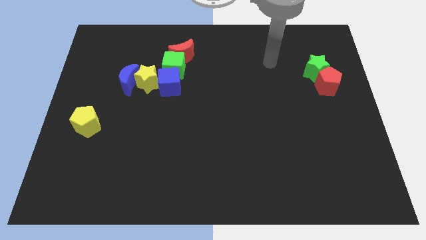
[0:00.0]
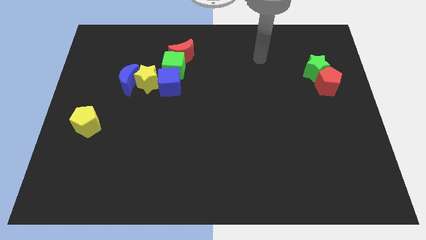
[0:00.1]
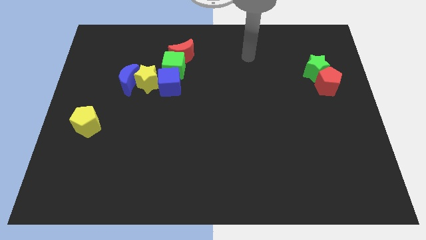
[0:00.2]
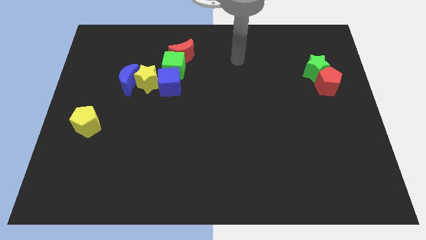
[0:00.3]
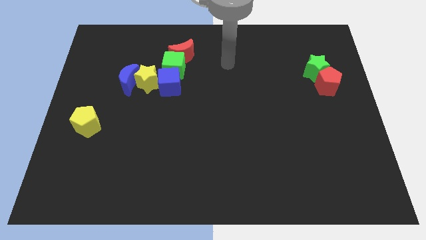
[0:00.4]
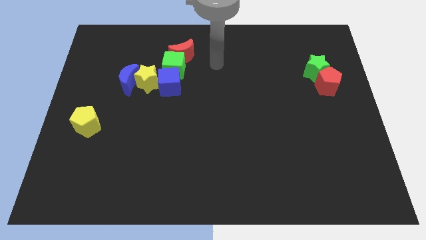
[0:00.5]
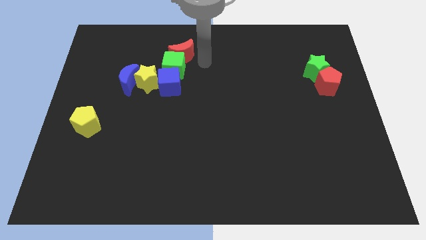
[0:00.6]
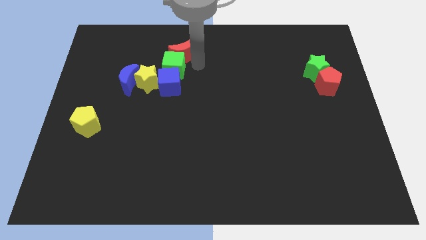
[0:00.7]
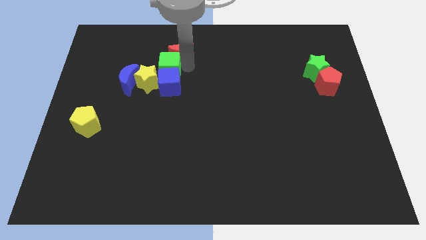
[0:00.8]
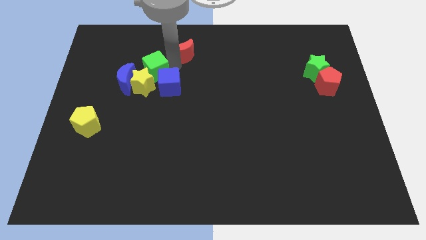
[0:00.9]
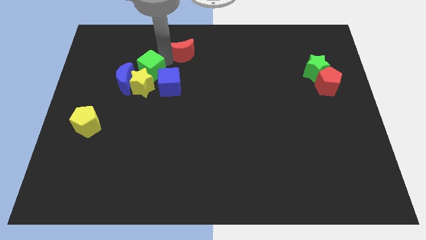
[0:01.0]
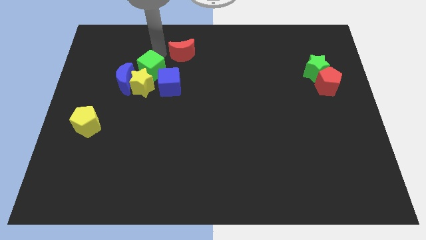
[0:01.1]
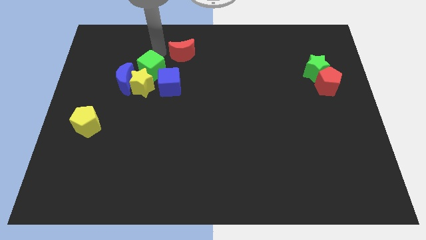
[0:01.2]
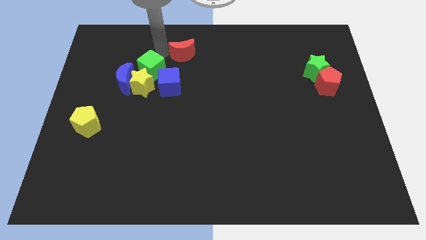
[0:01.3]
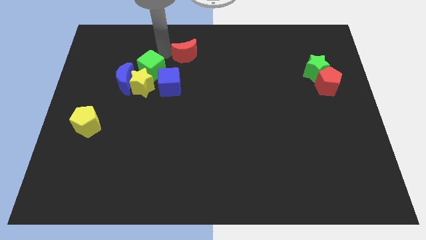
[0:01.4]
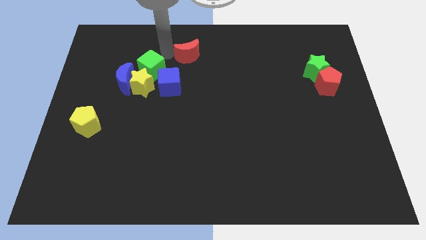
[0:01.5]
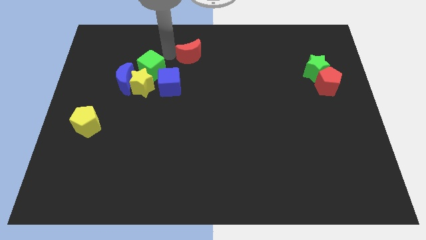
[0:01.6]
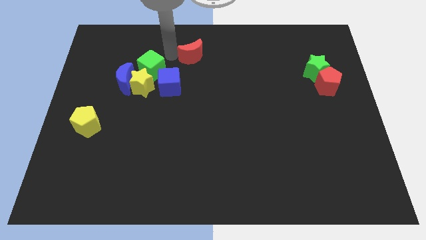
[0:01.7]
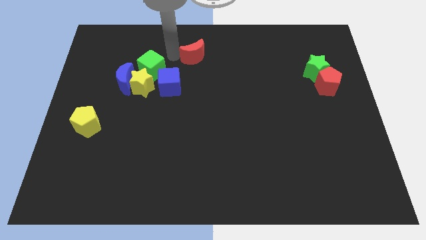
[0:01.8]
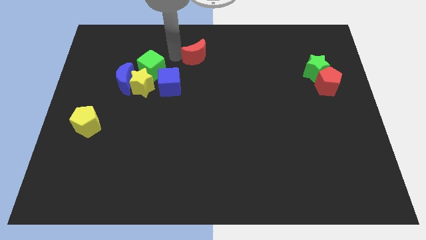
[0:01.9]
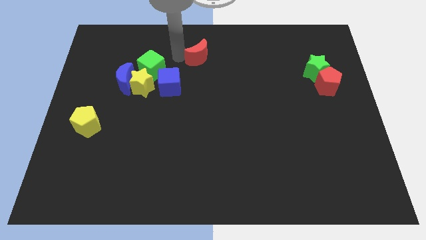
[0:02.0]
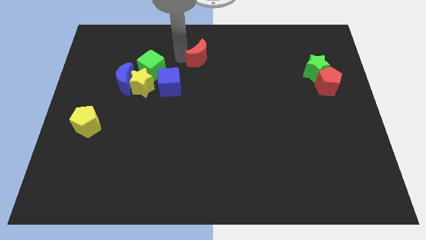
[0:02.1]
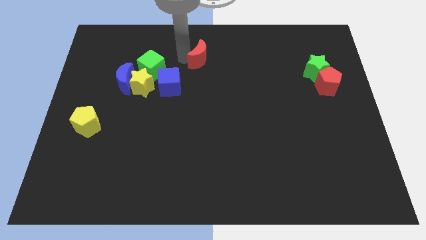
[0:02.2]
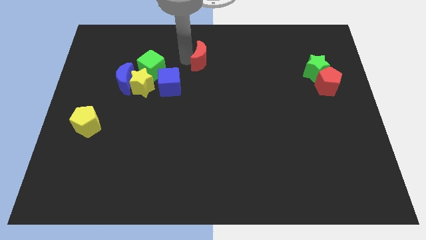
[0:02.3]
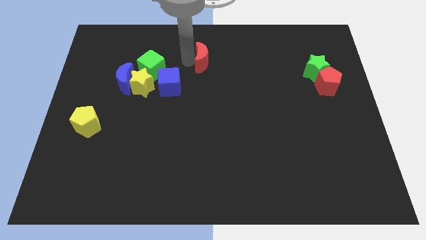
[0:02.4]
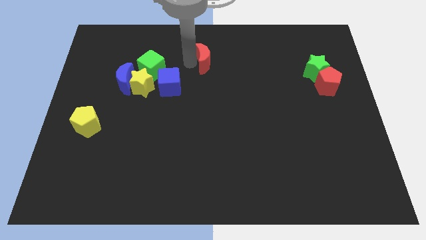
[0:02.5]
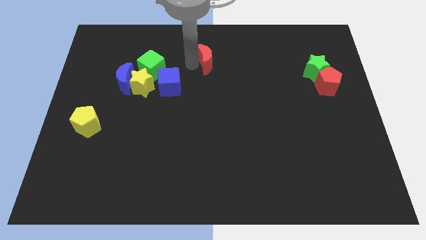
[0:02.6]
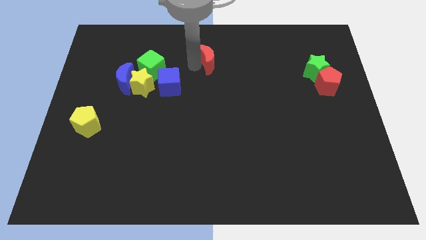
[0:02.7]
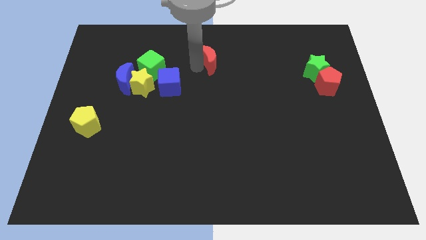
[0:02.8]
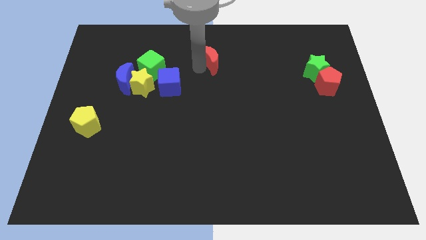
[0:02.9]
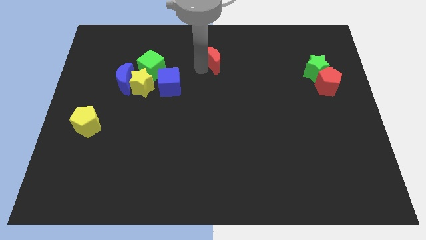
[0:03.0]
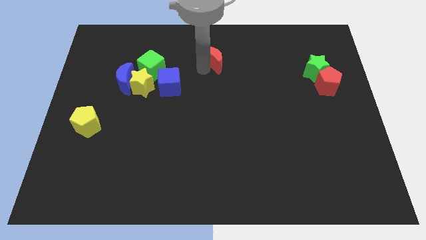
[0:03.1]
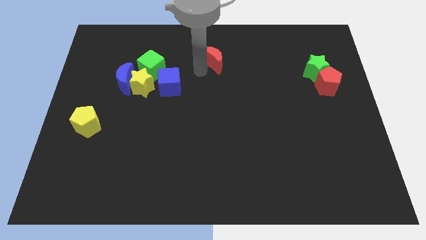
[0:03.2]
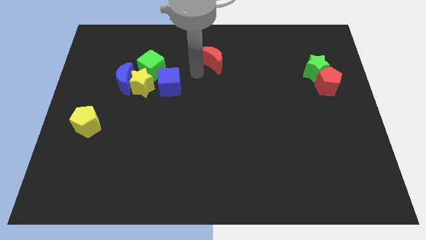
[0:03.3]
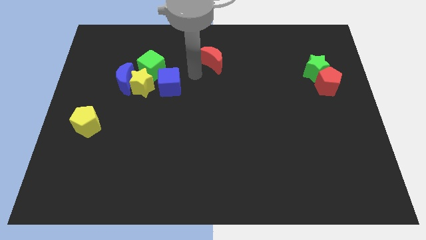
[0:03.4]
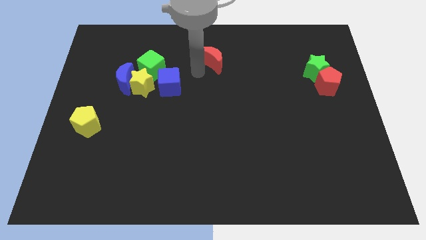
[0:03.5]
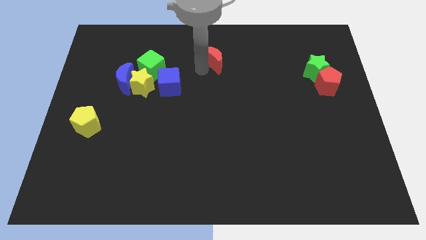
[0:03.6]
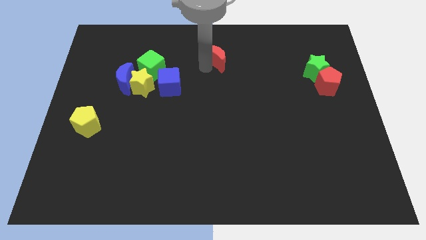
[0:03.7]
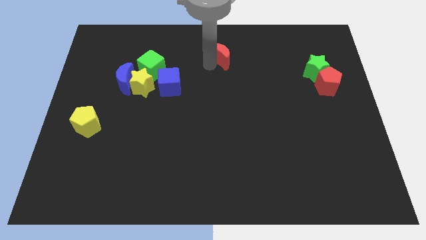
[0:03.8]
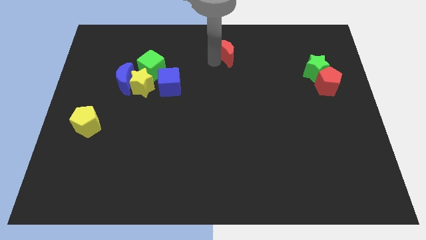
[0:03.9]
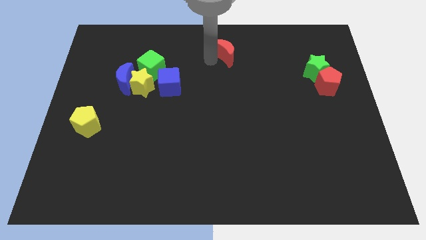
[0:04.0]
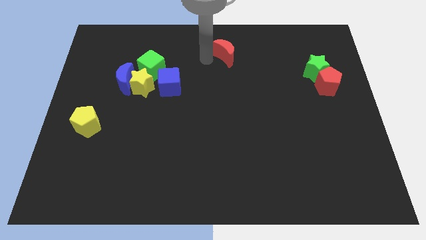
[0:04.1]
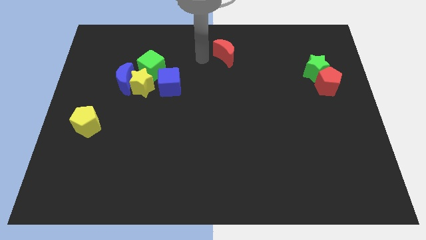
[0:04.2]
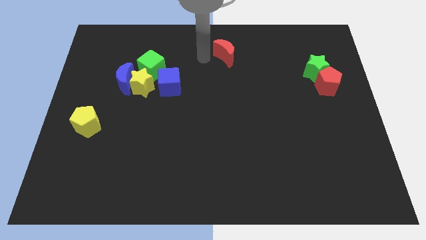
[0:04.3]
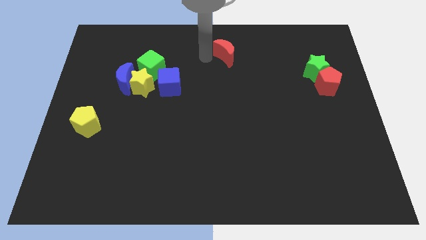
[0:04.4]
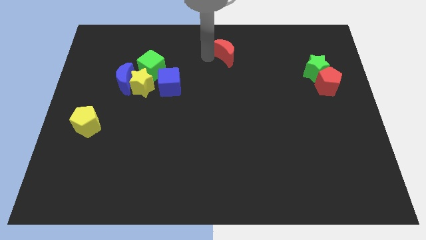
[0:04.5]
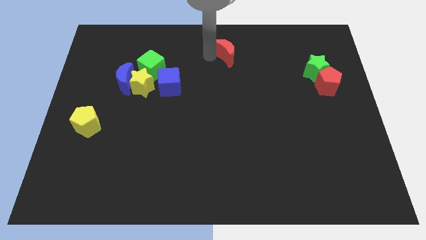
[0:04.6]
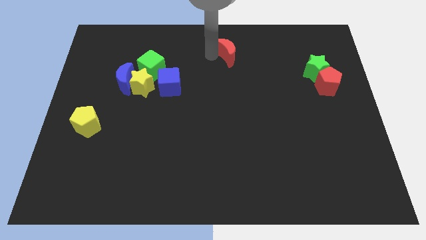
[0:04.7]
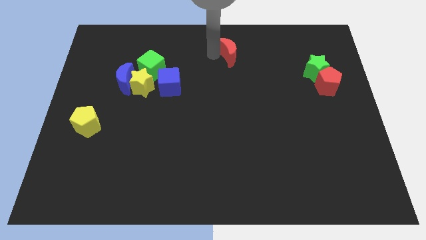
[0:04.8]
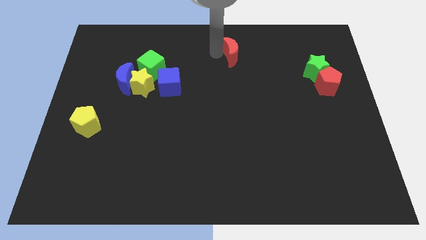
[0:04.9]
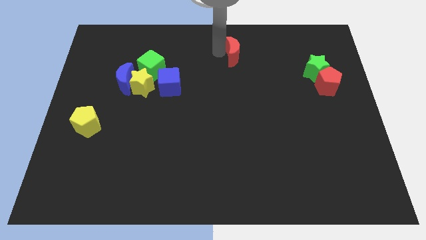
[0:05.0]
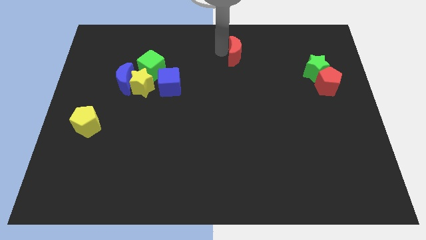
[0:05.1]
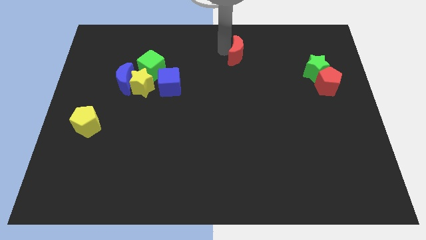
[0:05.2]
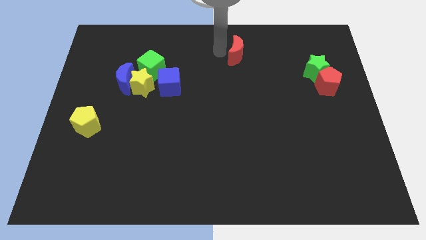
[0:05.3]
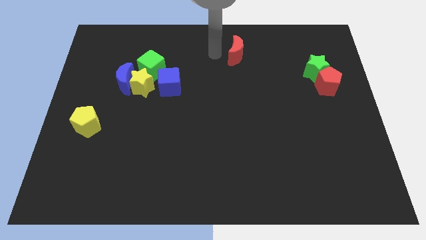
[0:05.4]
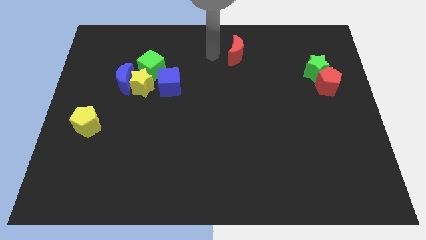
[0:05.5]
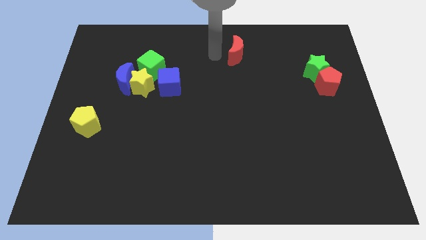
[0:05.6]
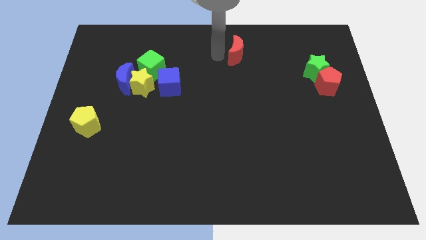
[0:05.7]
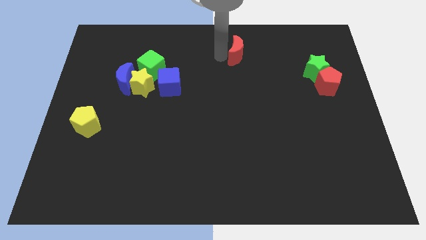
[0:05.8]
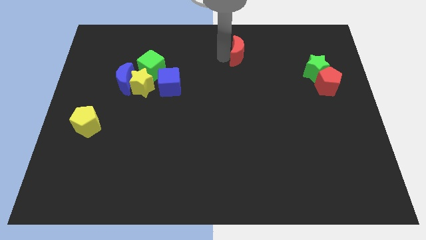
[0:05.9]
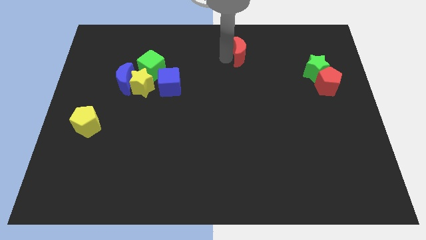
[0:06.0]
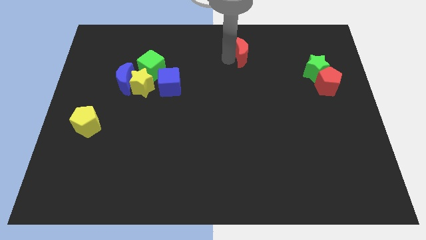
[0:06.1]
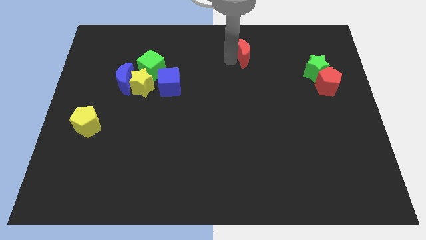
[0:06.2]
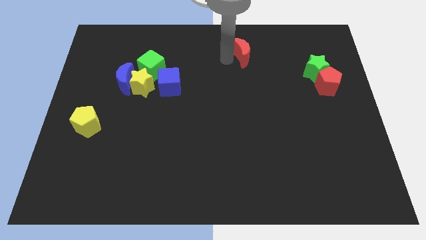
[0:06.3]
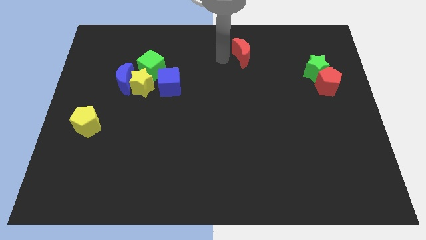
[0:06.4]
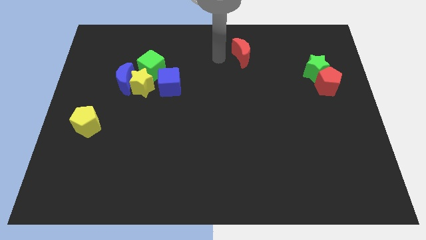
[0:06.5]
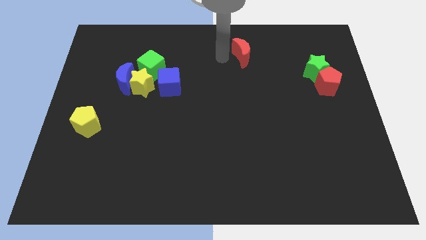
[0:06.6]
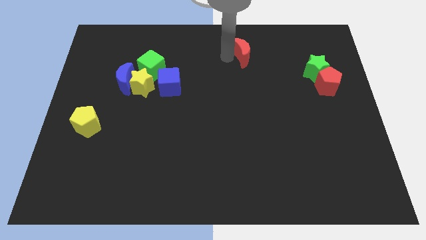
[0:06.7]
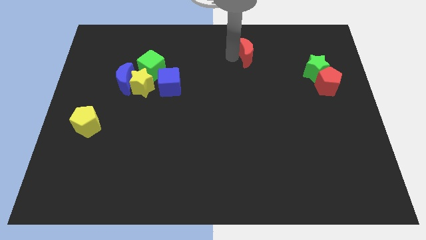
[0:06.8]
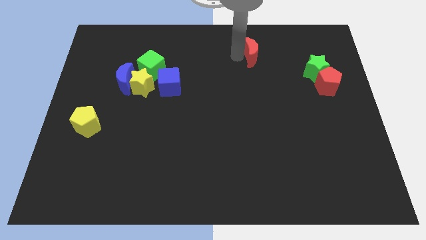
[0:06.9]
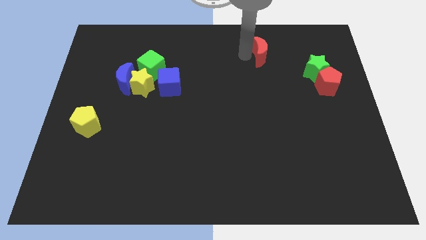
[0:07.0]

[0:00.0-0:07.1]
slide the red moon to the right

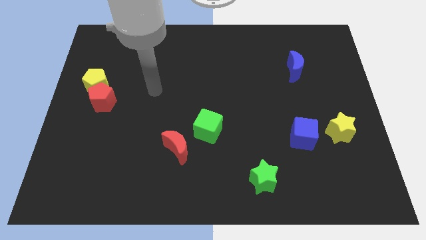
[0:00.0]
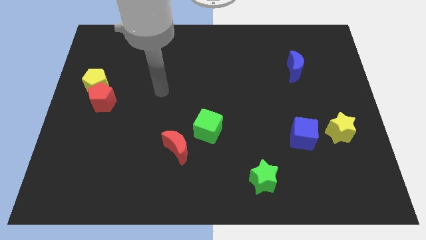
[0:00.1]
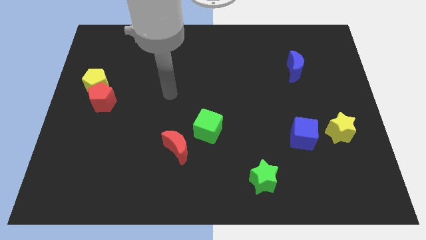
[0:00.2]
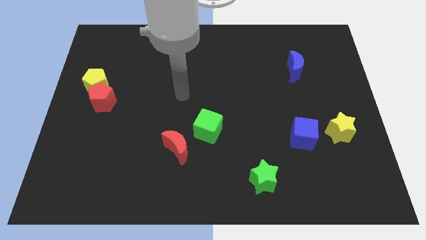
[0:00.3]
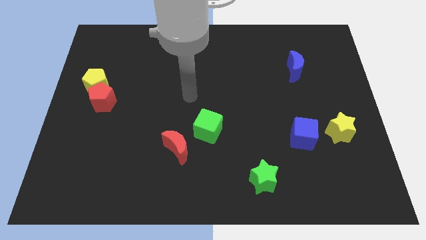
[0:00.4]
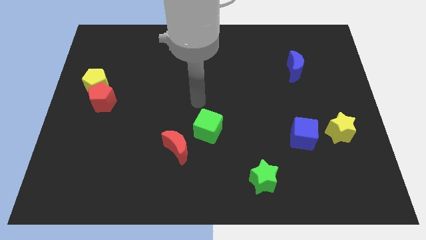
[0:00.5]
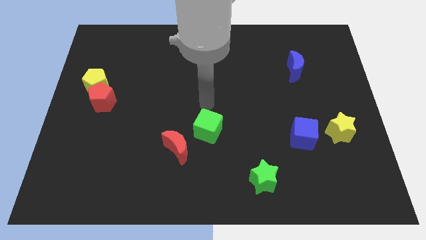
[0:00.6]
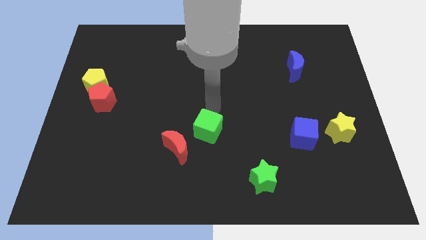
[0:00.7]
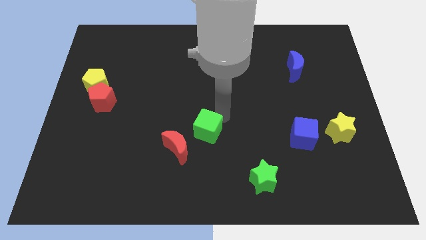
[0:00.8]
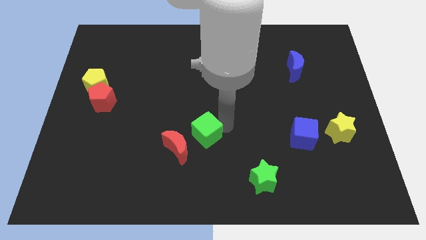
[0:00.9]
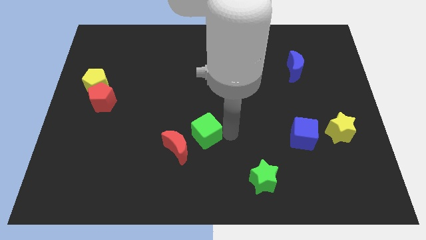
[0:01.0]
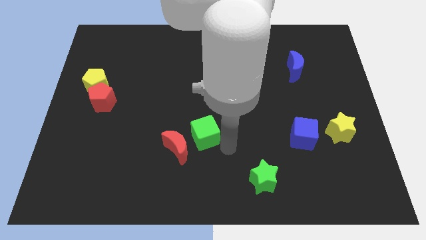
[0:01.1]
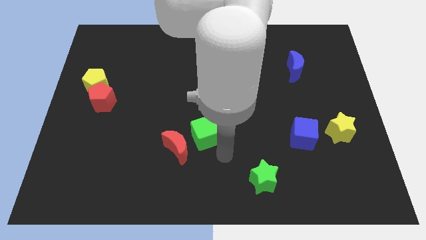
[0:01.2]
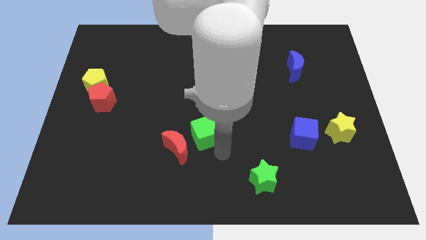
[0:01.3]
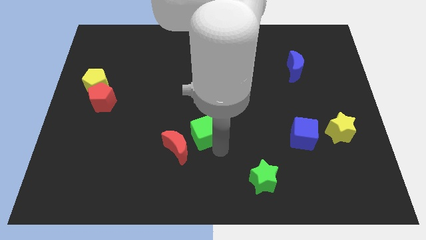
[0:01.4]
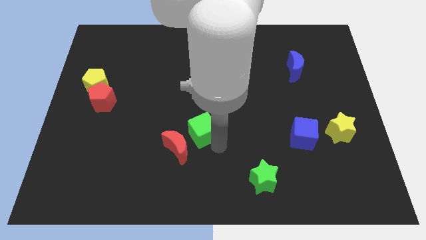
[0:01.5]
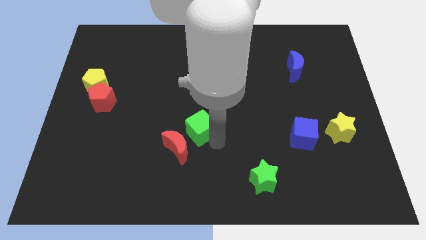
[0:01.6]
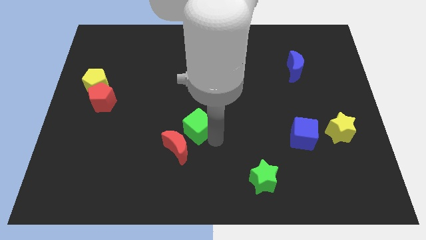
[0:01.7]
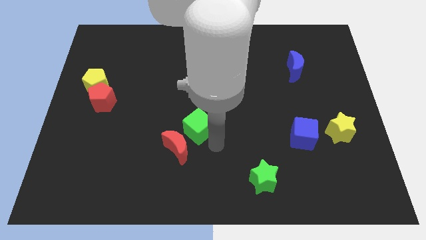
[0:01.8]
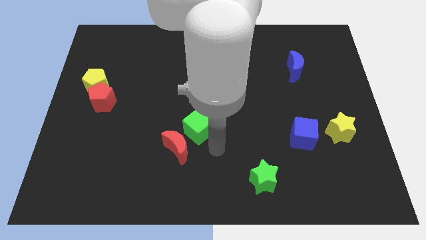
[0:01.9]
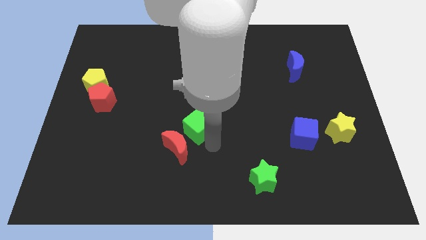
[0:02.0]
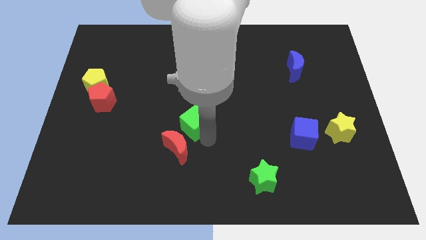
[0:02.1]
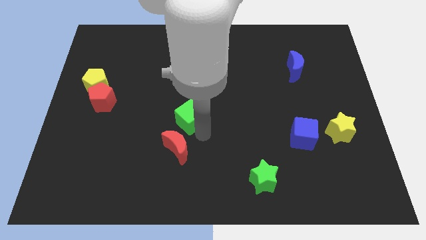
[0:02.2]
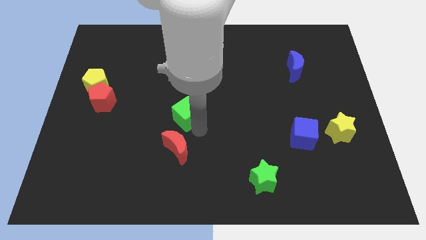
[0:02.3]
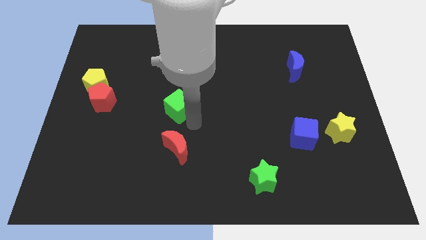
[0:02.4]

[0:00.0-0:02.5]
slide the green cube slightly up and left
